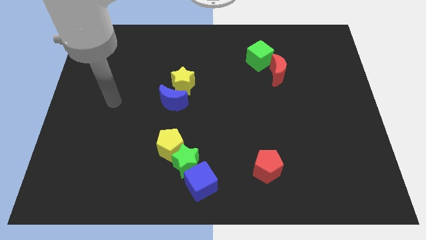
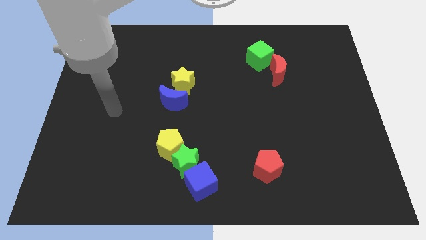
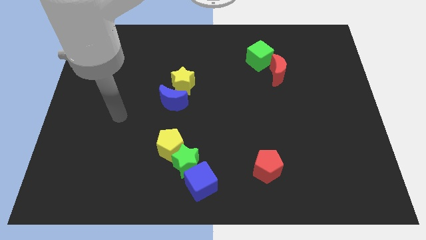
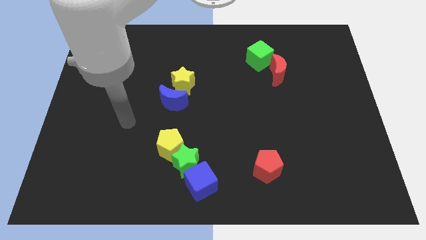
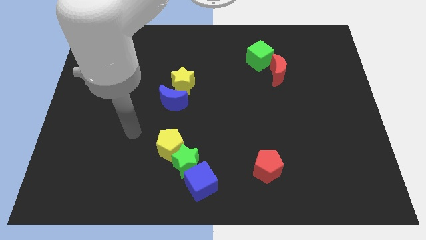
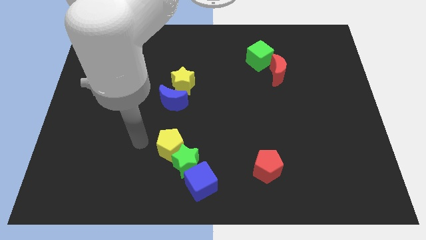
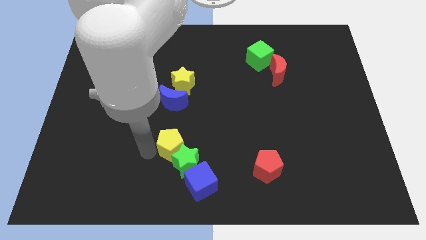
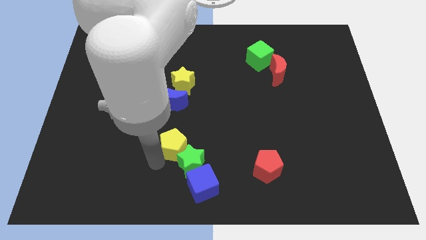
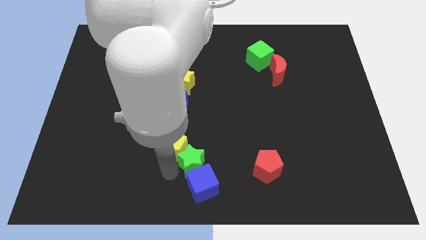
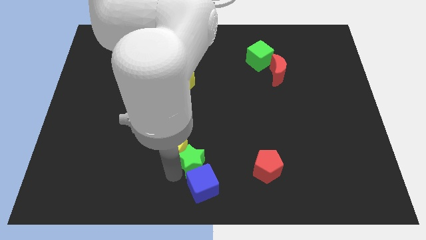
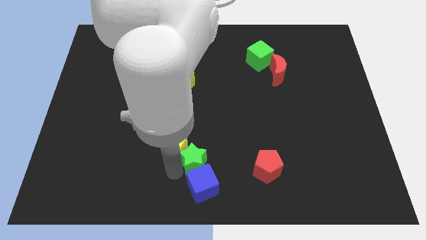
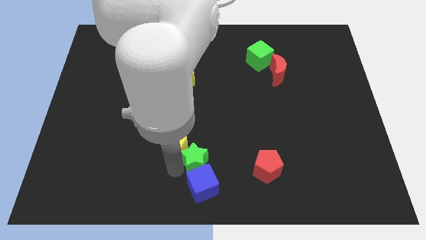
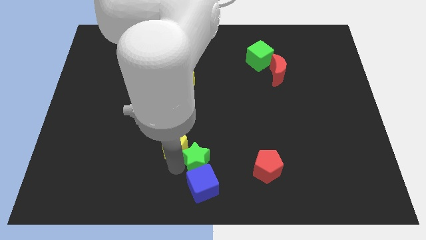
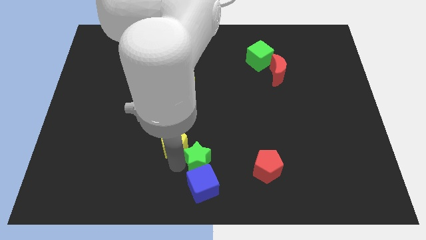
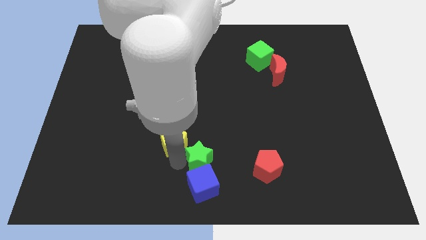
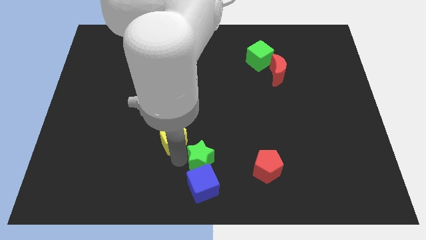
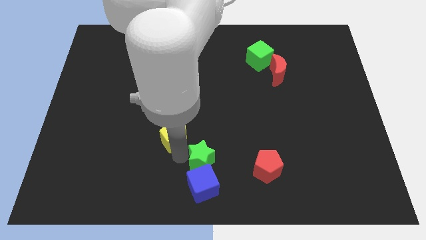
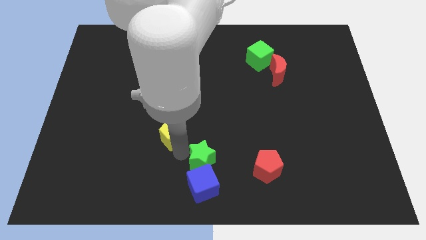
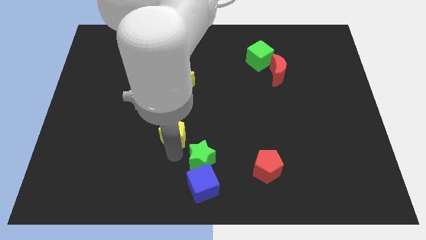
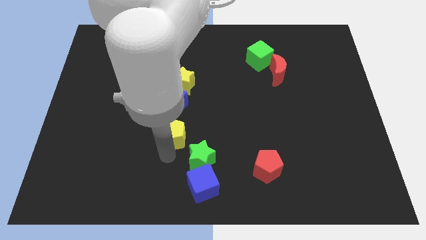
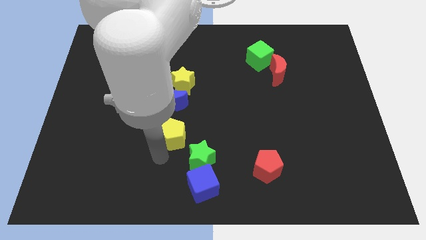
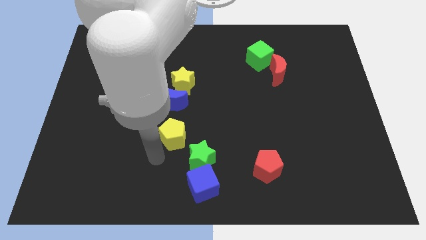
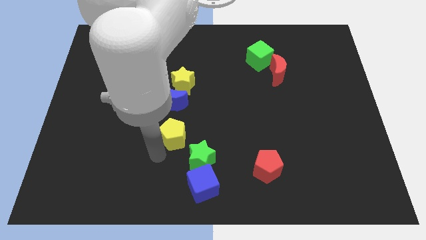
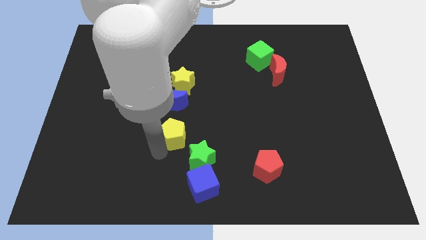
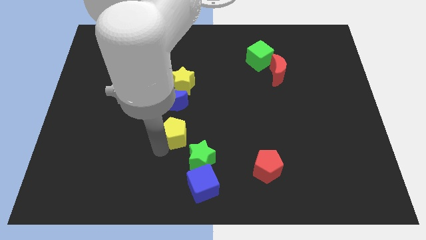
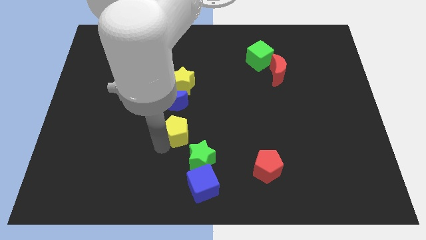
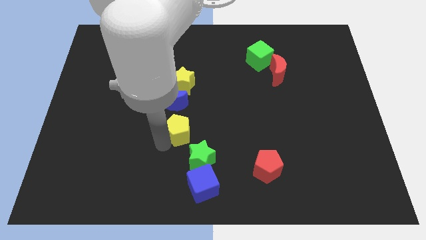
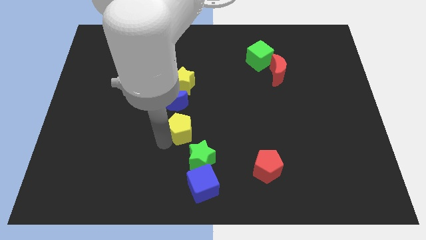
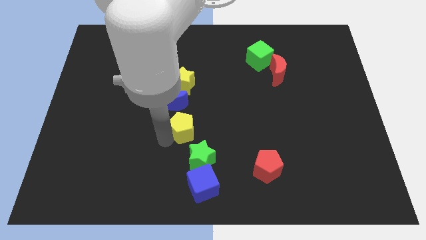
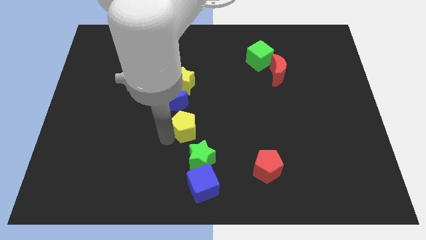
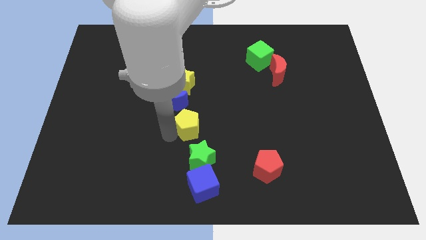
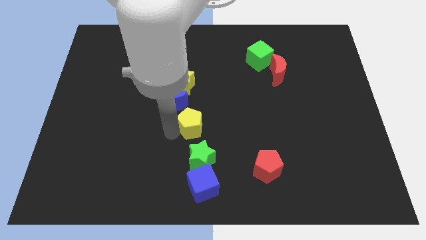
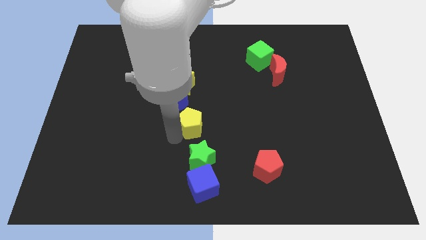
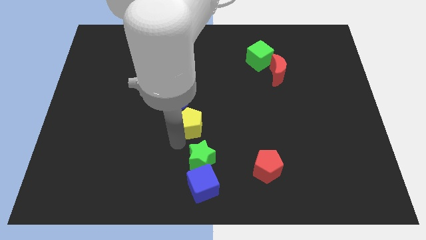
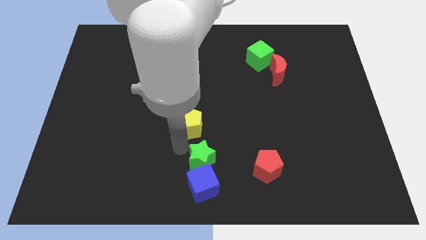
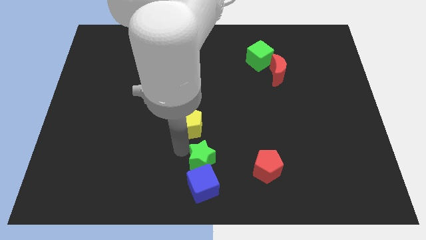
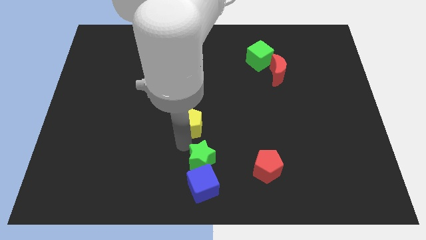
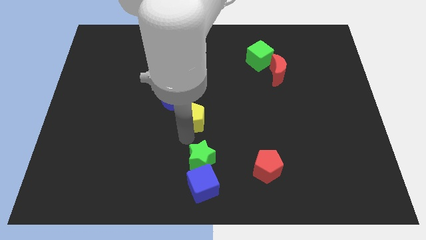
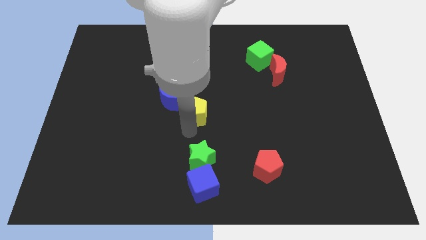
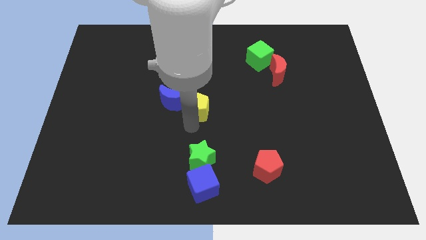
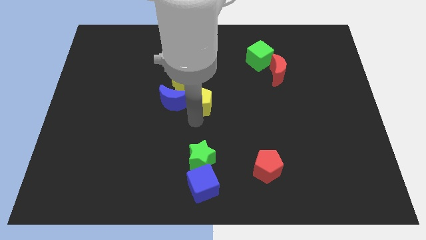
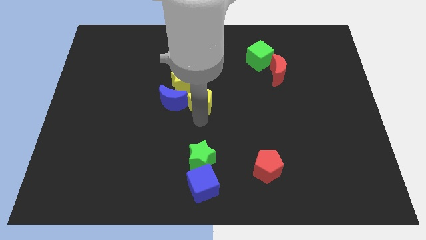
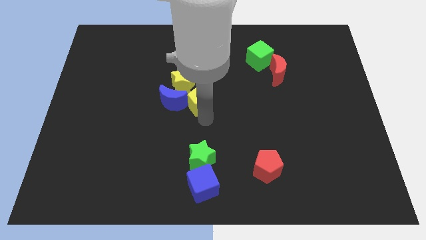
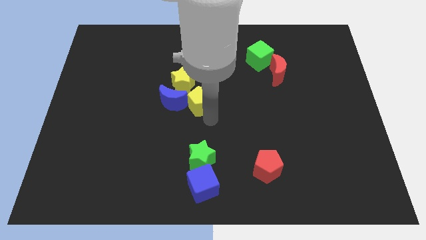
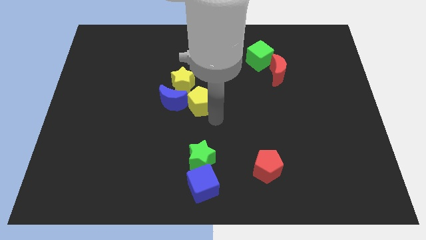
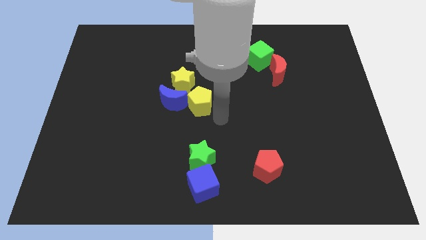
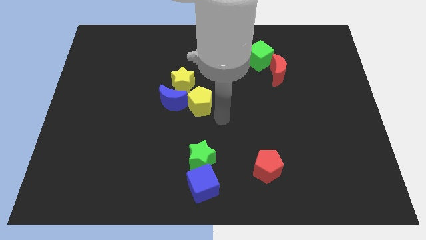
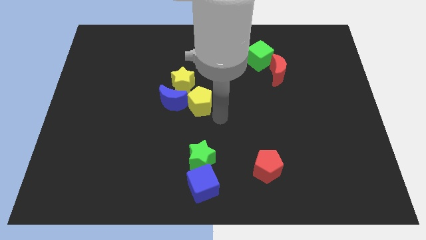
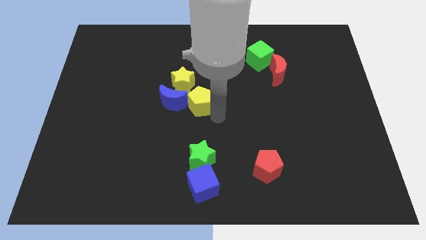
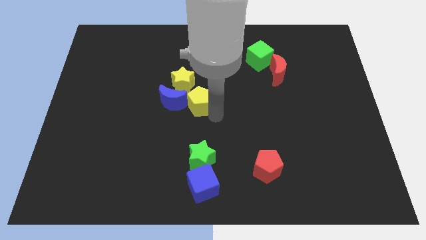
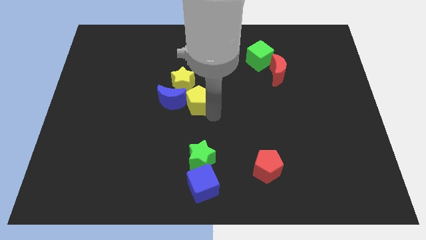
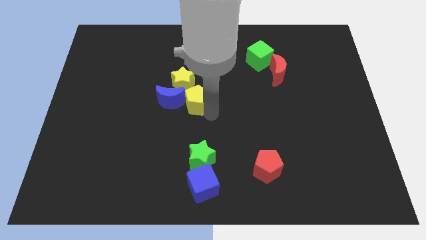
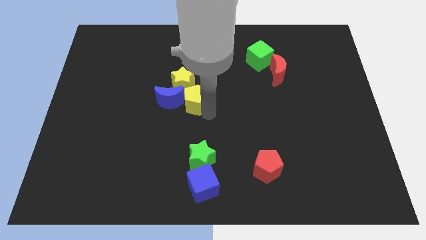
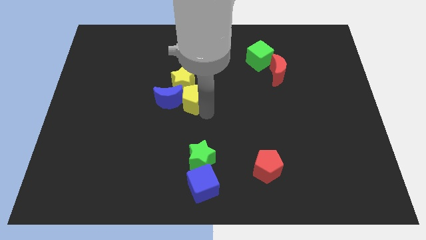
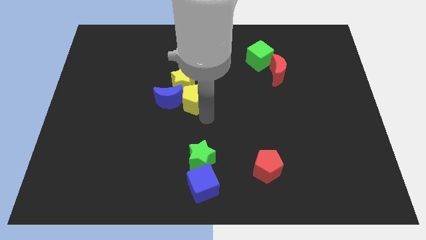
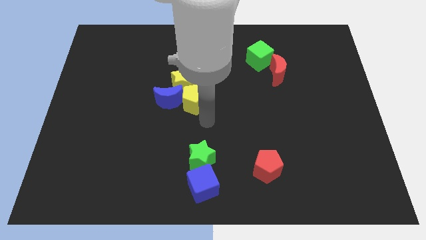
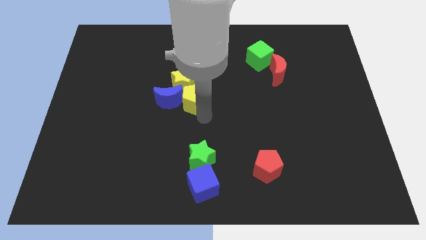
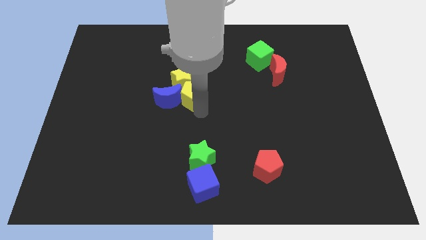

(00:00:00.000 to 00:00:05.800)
move the yellow pentagon towards the yellow star
